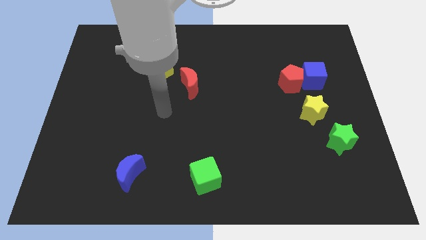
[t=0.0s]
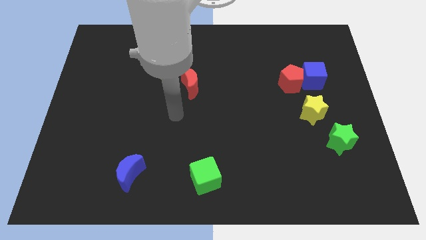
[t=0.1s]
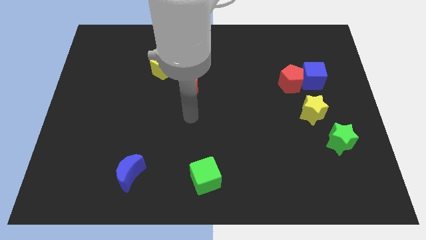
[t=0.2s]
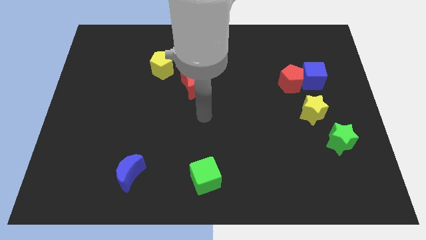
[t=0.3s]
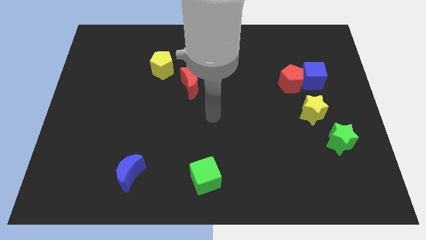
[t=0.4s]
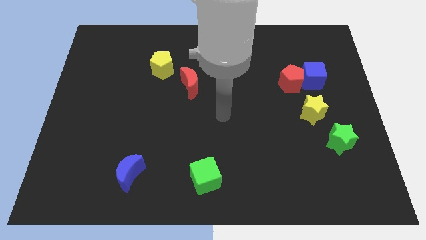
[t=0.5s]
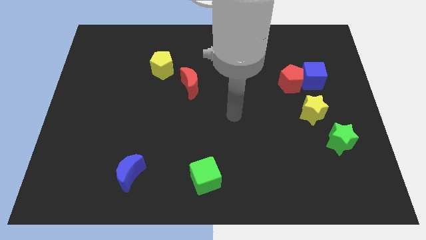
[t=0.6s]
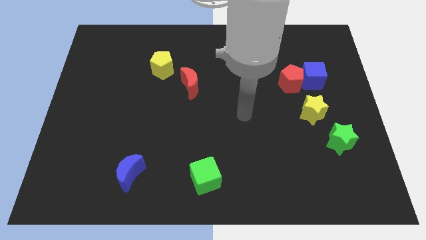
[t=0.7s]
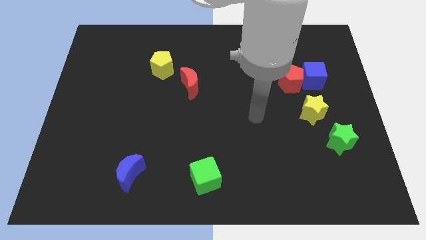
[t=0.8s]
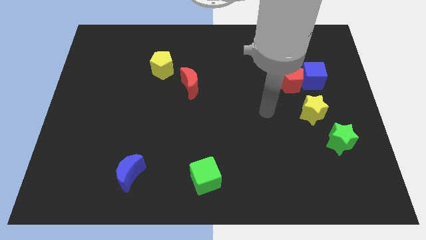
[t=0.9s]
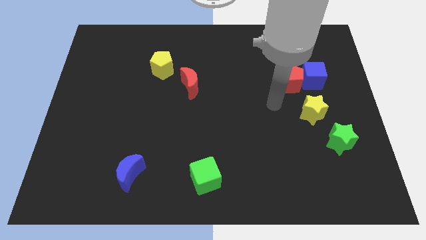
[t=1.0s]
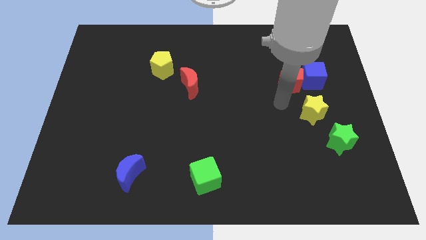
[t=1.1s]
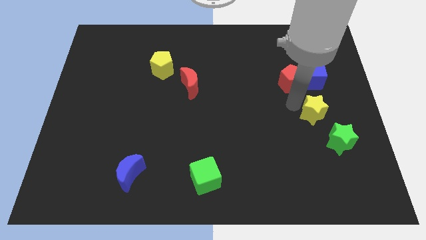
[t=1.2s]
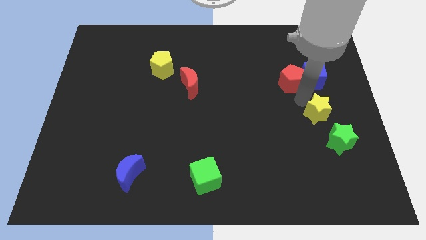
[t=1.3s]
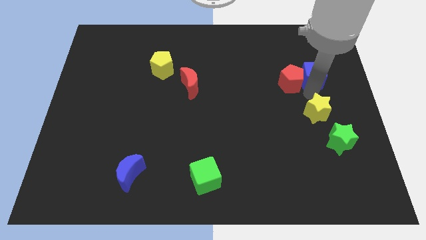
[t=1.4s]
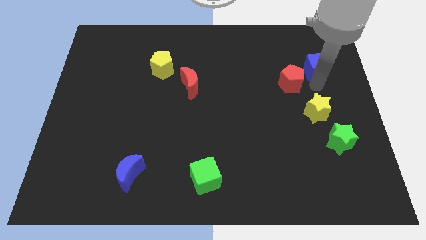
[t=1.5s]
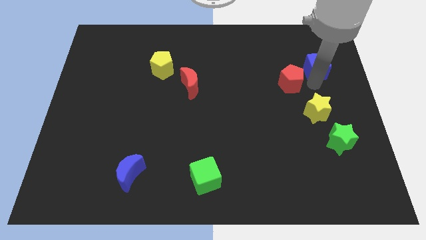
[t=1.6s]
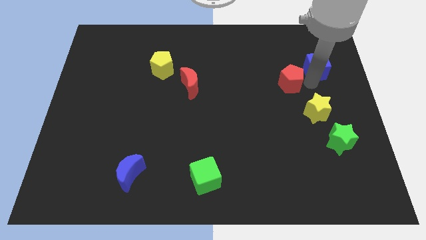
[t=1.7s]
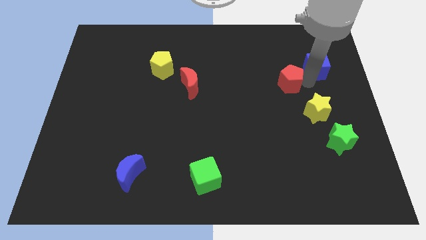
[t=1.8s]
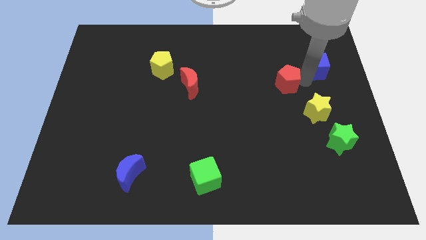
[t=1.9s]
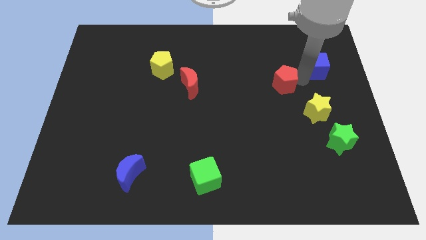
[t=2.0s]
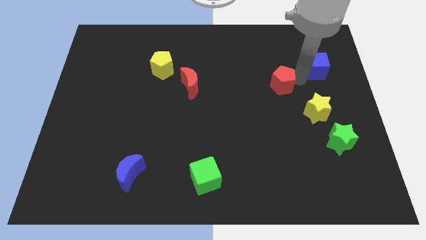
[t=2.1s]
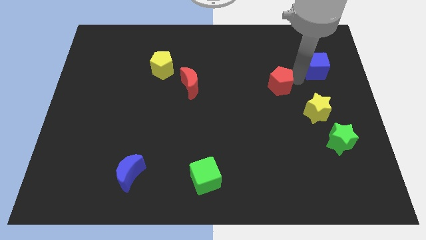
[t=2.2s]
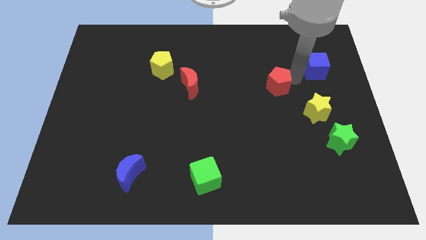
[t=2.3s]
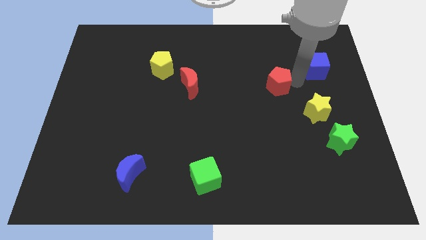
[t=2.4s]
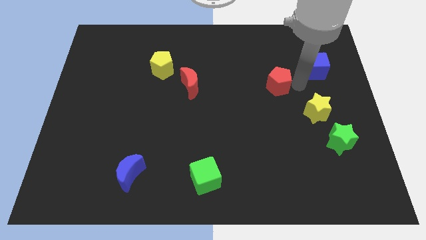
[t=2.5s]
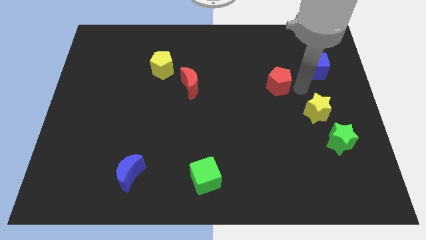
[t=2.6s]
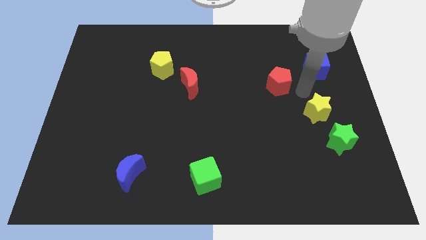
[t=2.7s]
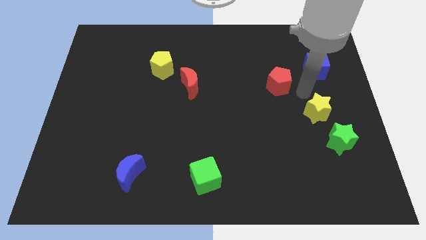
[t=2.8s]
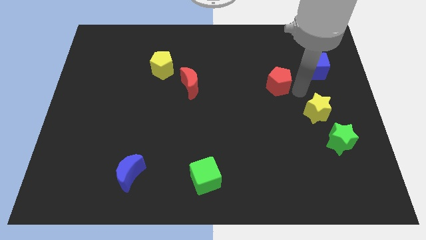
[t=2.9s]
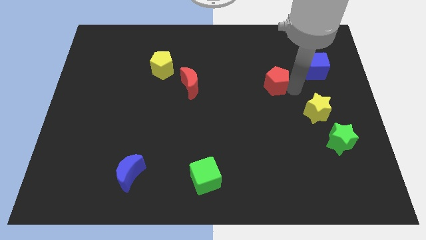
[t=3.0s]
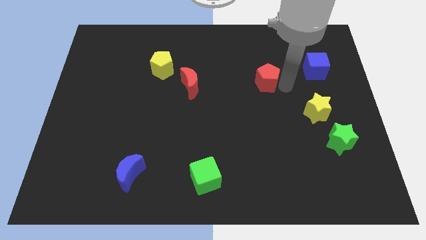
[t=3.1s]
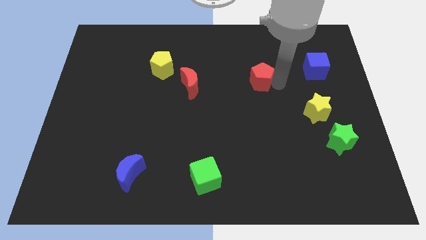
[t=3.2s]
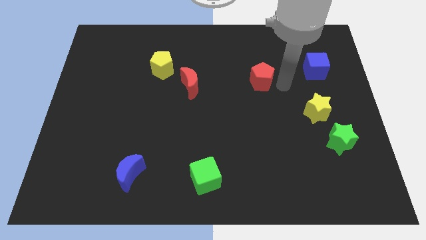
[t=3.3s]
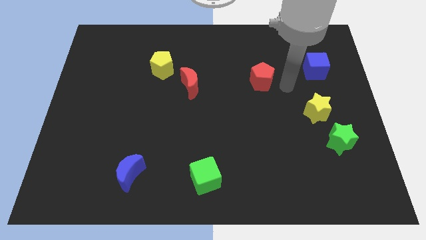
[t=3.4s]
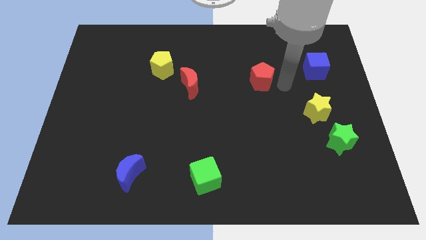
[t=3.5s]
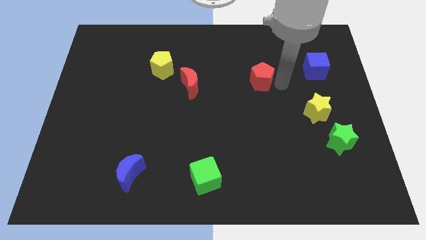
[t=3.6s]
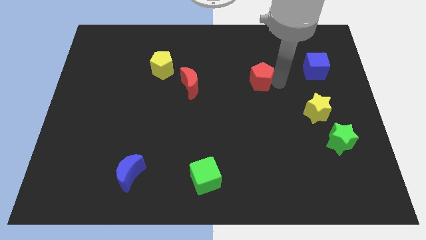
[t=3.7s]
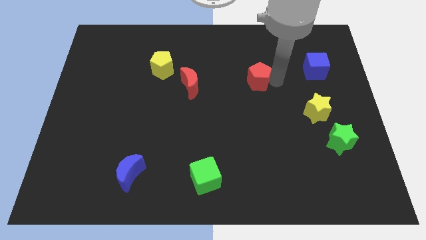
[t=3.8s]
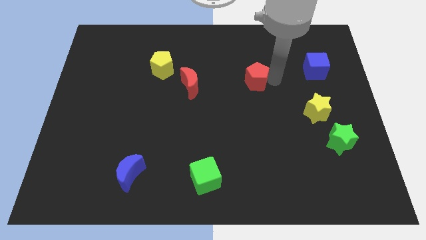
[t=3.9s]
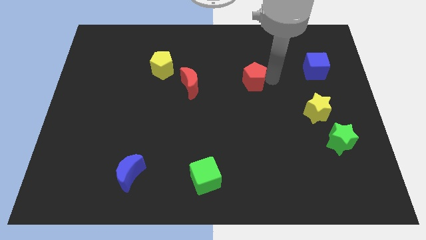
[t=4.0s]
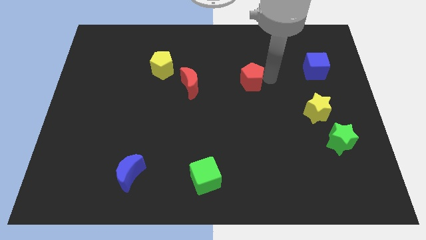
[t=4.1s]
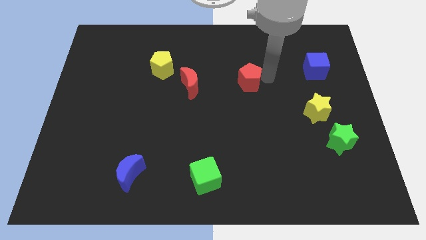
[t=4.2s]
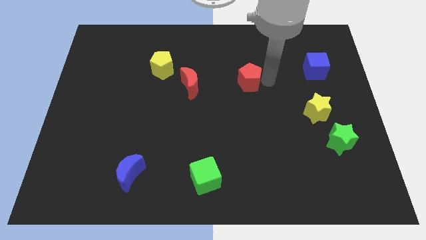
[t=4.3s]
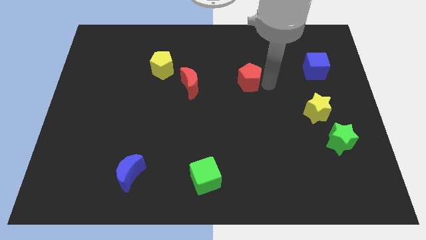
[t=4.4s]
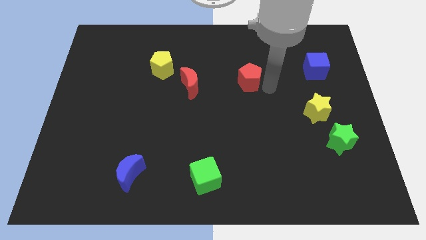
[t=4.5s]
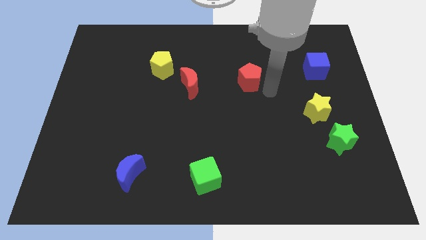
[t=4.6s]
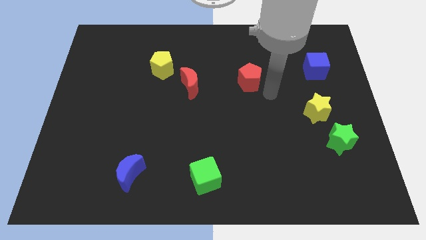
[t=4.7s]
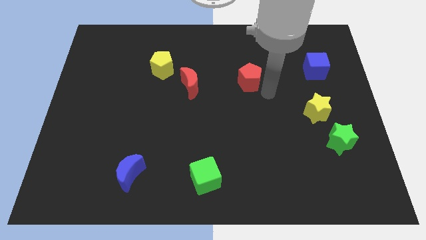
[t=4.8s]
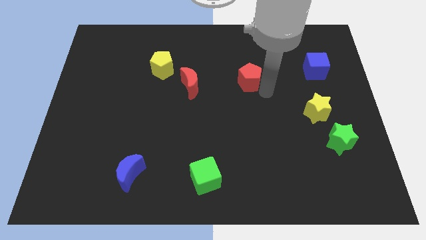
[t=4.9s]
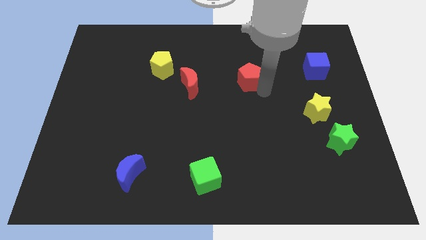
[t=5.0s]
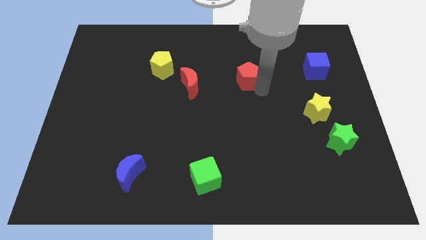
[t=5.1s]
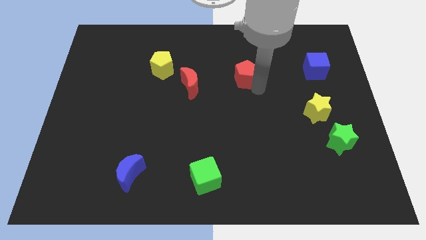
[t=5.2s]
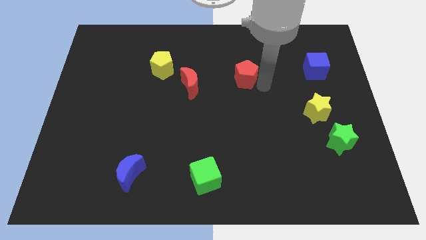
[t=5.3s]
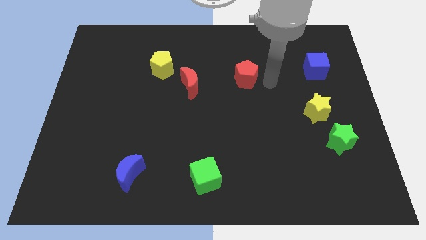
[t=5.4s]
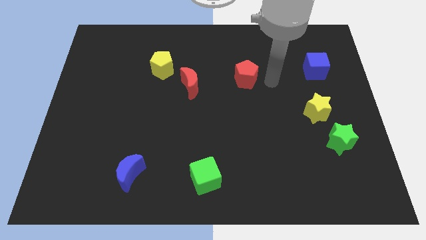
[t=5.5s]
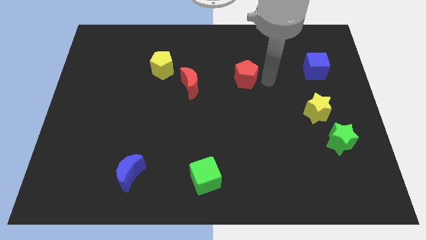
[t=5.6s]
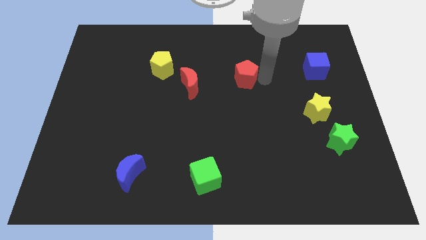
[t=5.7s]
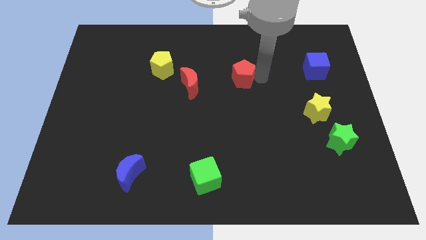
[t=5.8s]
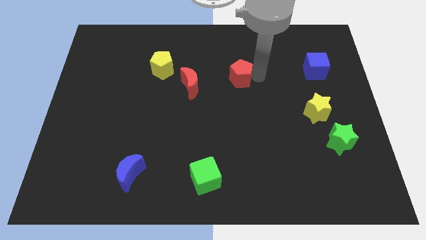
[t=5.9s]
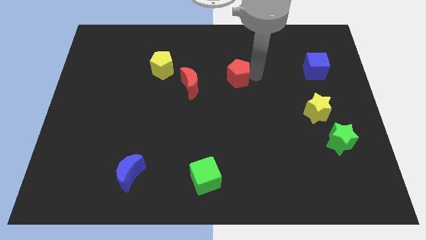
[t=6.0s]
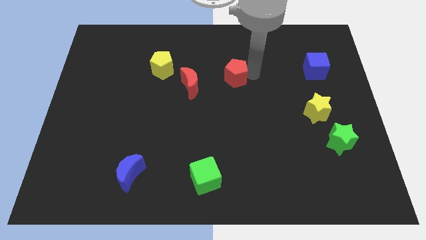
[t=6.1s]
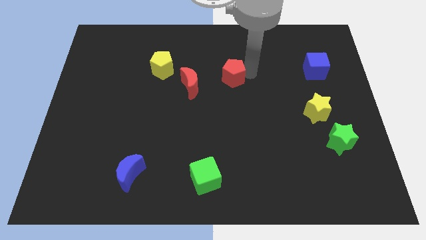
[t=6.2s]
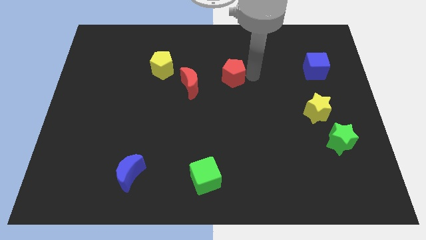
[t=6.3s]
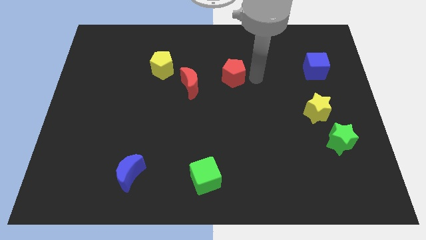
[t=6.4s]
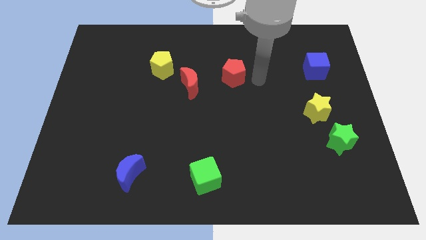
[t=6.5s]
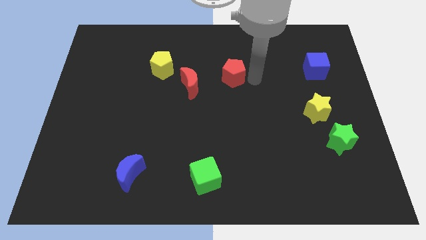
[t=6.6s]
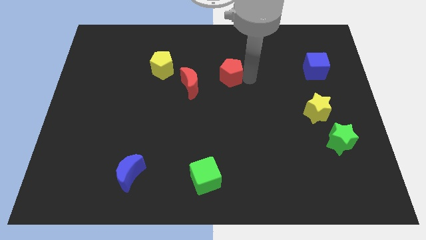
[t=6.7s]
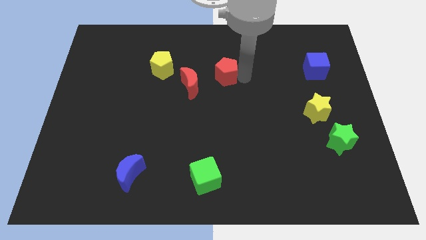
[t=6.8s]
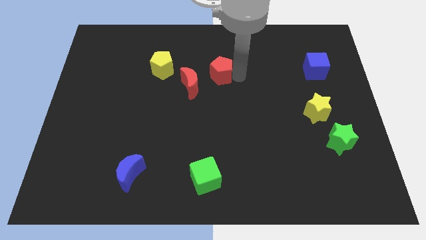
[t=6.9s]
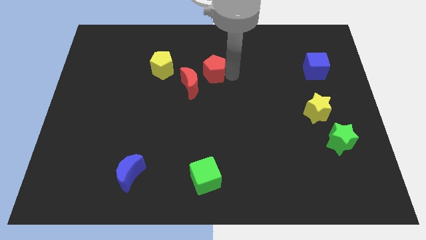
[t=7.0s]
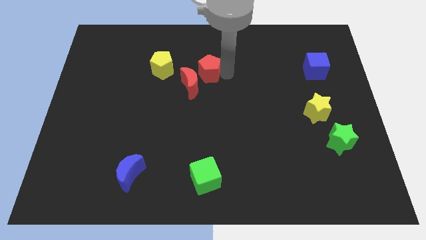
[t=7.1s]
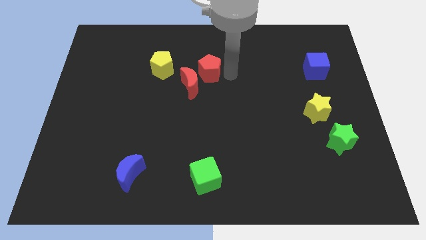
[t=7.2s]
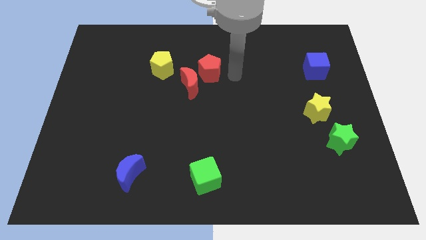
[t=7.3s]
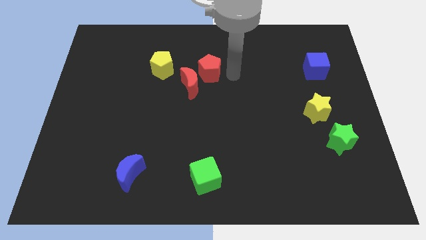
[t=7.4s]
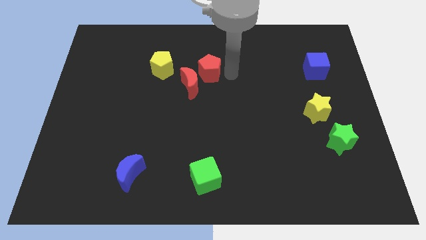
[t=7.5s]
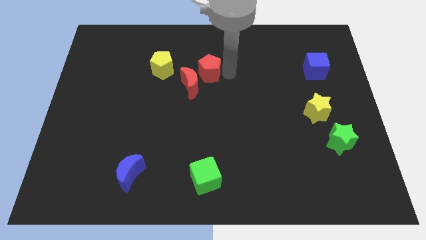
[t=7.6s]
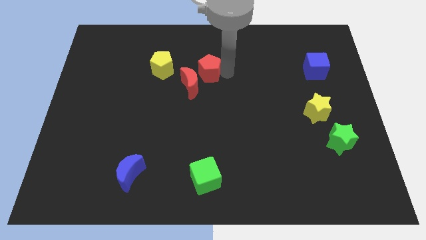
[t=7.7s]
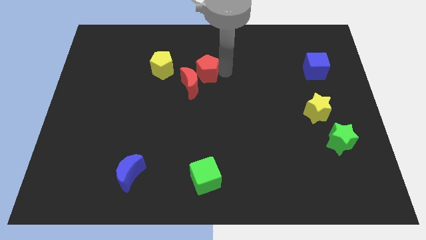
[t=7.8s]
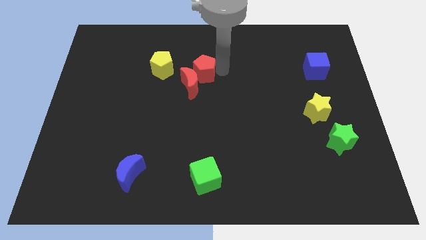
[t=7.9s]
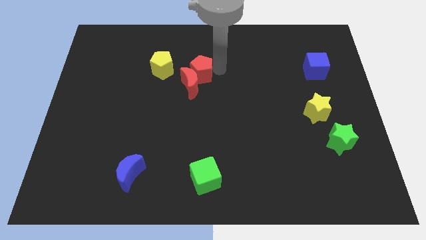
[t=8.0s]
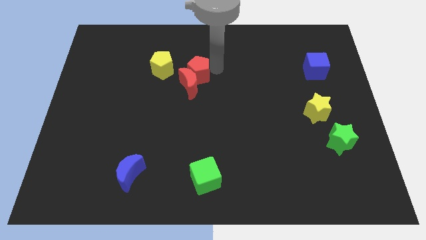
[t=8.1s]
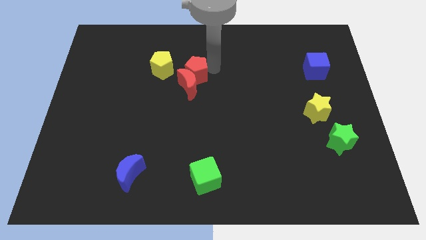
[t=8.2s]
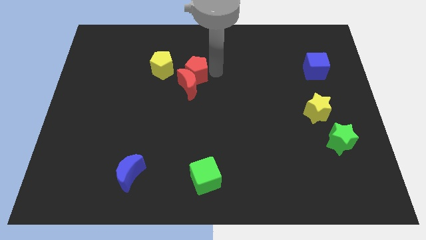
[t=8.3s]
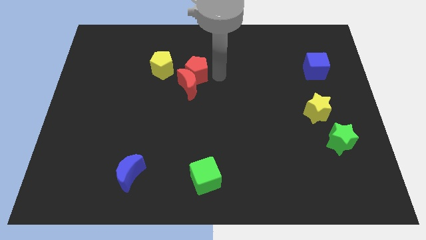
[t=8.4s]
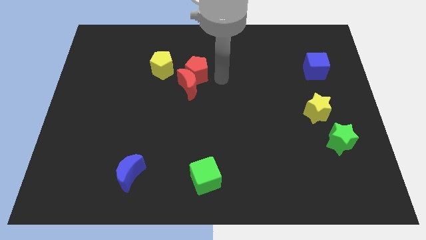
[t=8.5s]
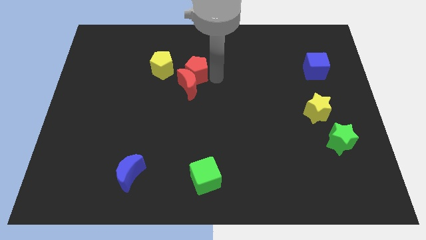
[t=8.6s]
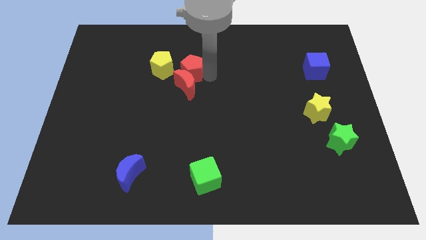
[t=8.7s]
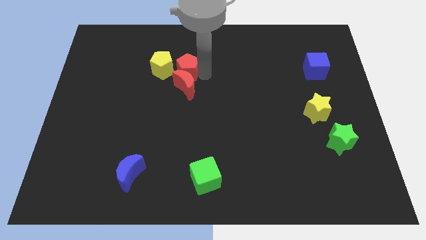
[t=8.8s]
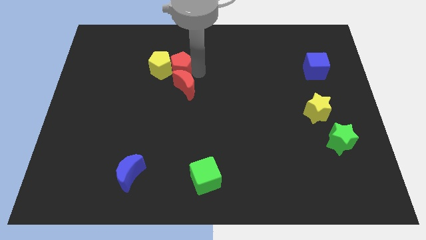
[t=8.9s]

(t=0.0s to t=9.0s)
move the red pentagon to the yellow pentagon
